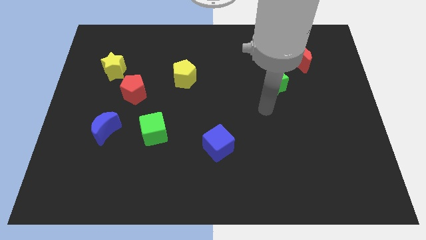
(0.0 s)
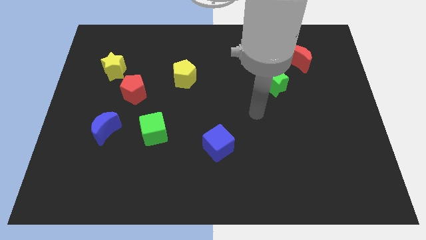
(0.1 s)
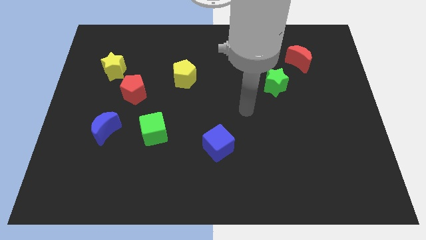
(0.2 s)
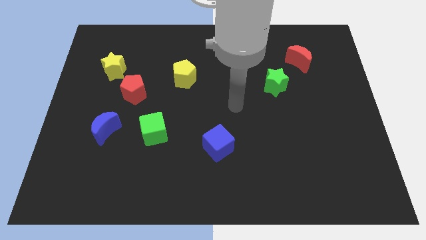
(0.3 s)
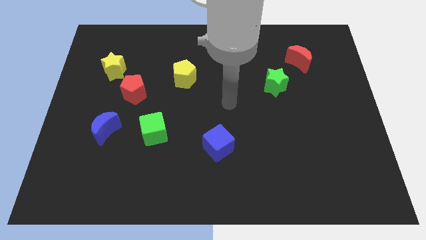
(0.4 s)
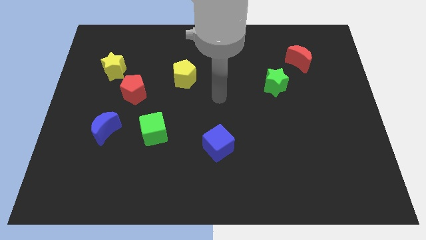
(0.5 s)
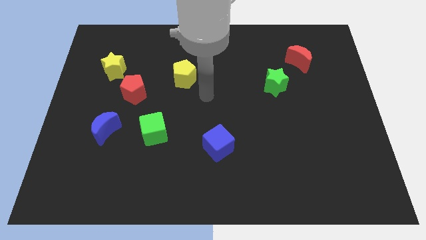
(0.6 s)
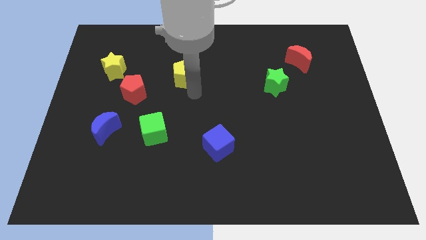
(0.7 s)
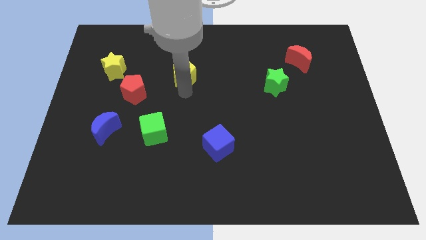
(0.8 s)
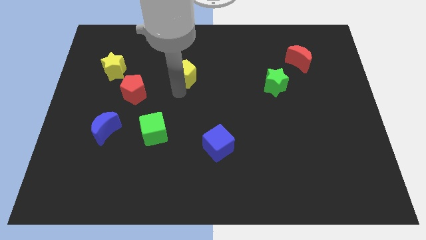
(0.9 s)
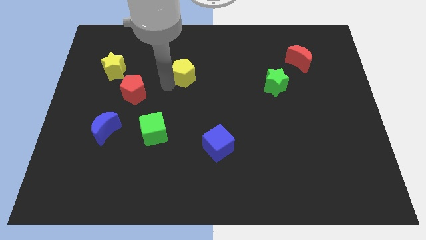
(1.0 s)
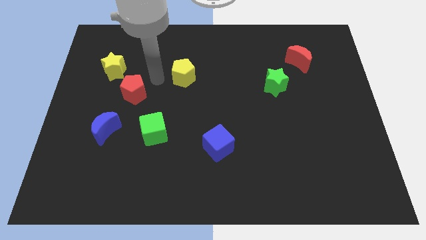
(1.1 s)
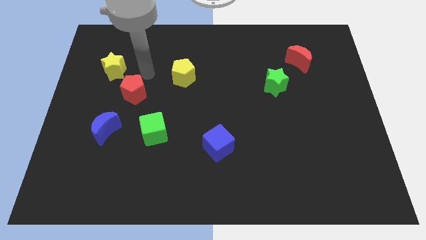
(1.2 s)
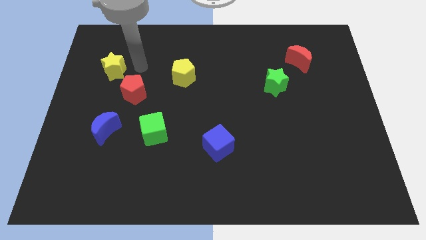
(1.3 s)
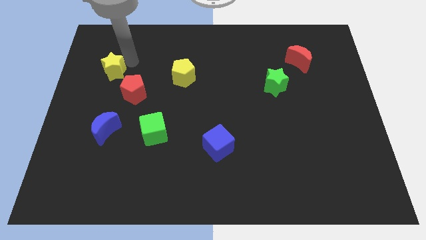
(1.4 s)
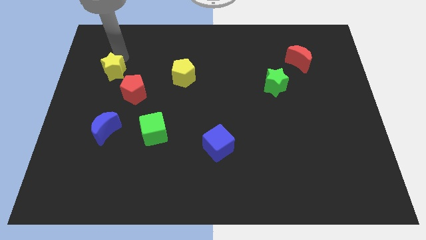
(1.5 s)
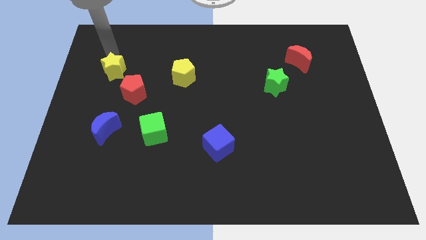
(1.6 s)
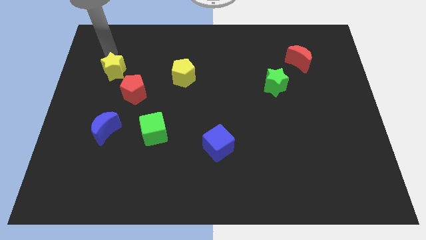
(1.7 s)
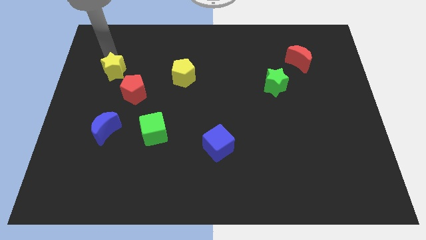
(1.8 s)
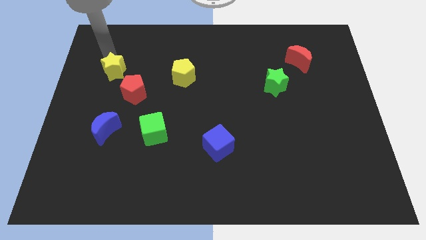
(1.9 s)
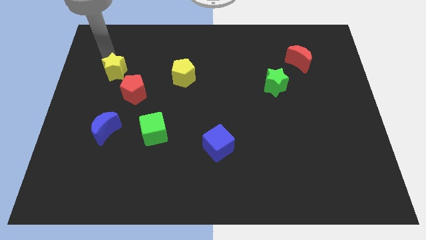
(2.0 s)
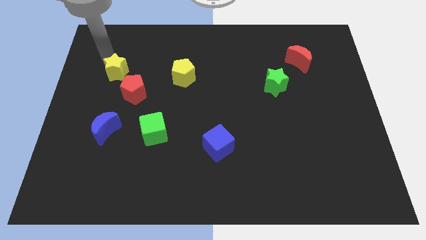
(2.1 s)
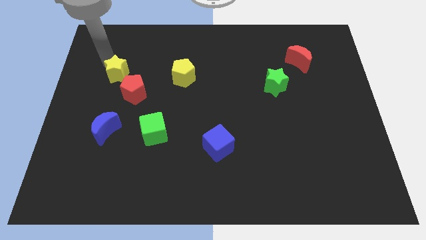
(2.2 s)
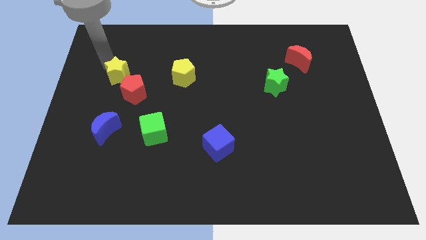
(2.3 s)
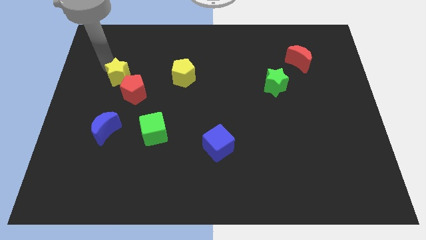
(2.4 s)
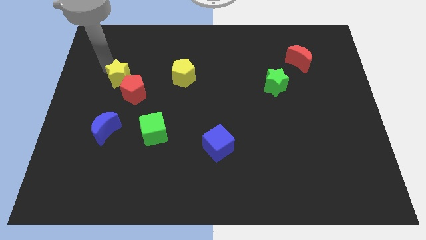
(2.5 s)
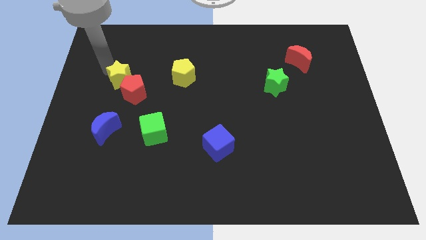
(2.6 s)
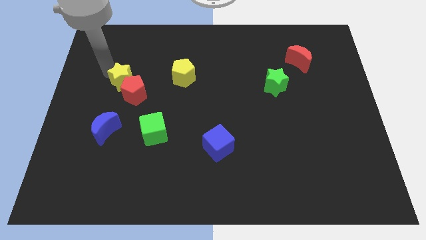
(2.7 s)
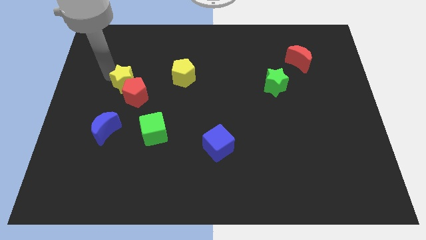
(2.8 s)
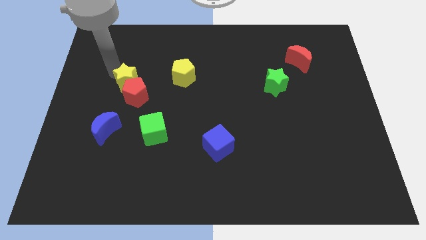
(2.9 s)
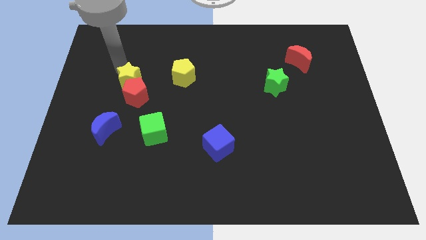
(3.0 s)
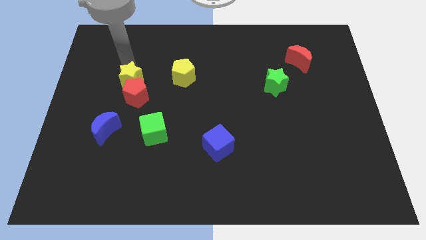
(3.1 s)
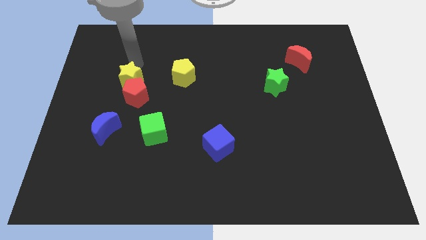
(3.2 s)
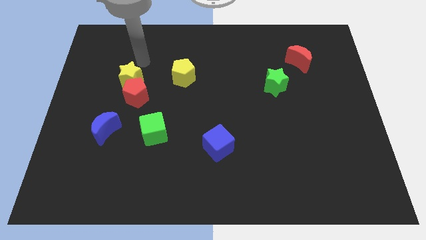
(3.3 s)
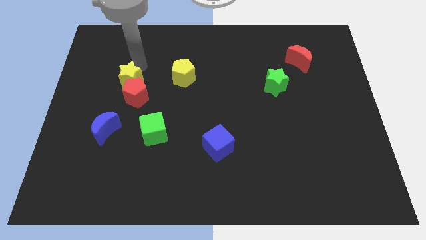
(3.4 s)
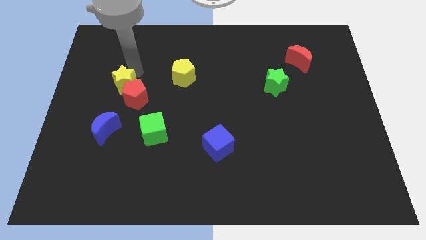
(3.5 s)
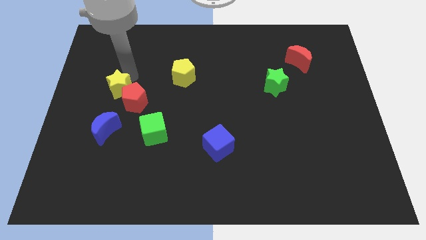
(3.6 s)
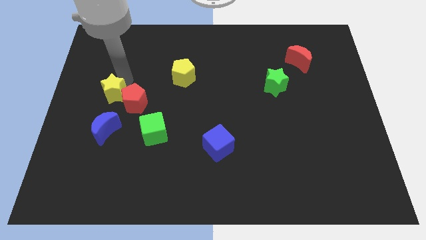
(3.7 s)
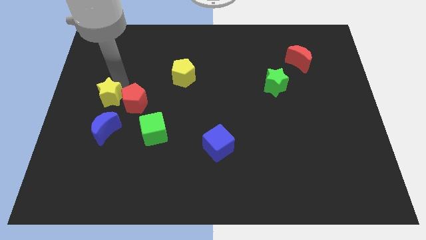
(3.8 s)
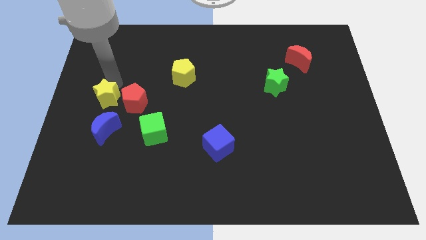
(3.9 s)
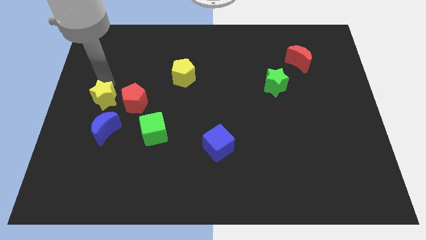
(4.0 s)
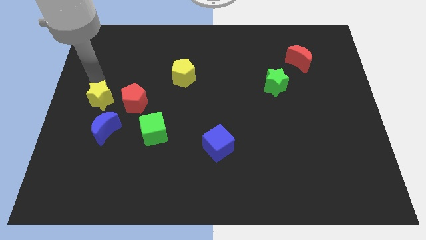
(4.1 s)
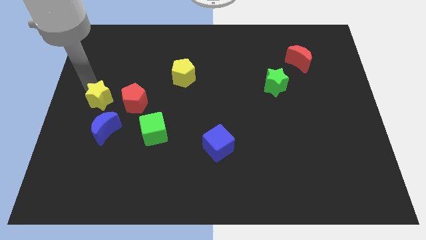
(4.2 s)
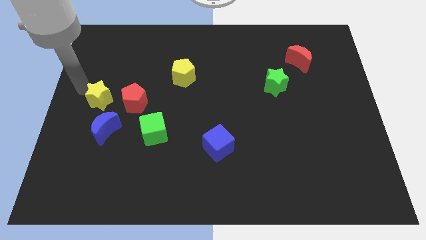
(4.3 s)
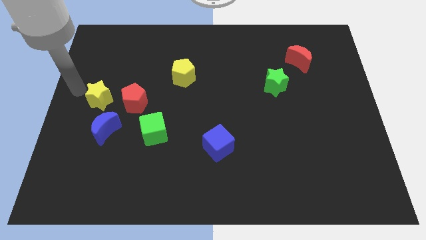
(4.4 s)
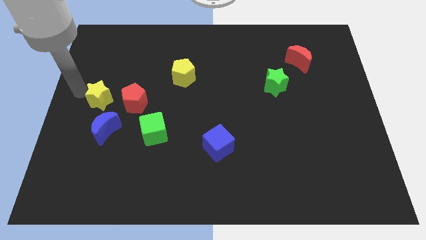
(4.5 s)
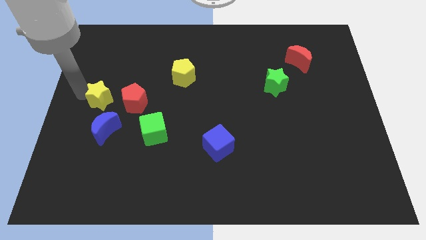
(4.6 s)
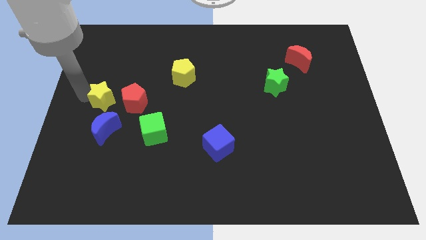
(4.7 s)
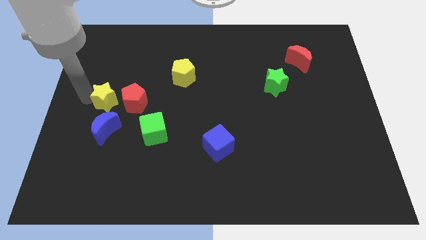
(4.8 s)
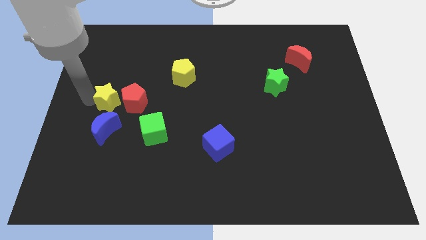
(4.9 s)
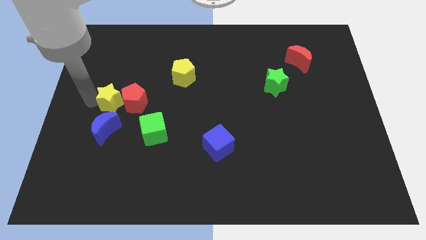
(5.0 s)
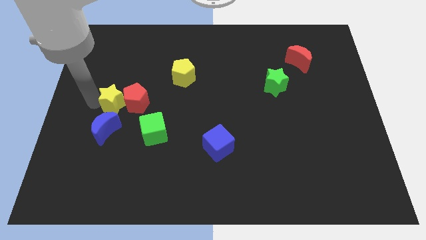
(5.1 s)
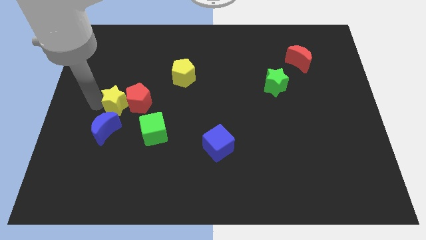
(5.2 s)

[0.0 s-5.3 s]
push the yellow star diagonally up and to the right of the blue moon

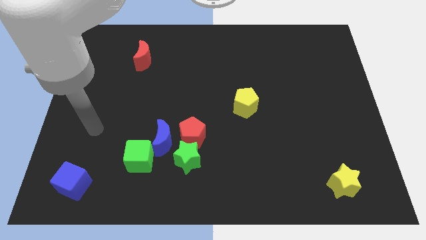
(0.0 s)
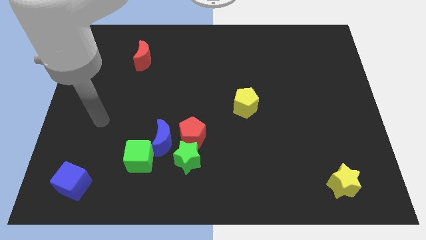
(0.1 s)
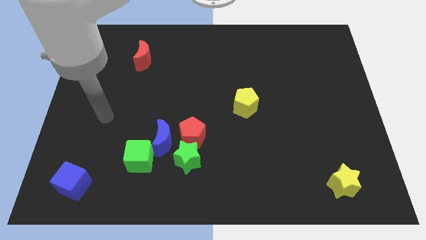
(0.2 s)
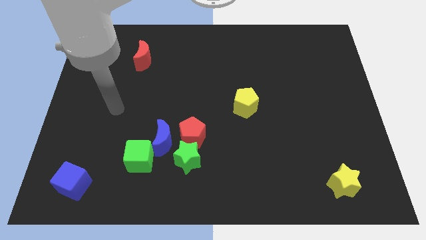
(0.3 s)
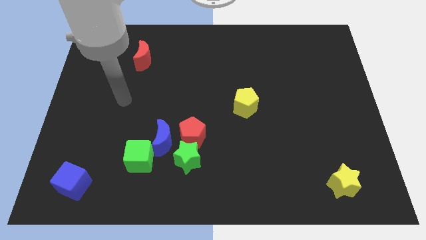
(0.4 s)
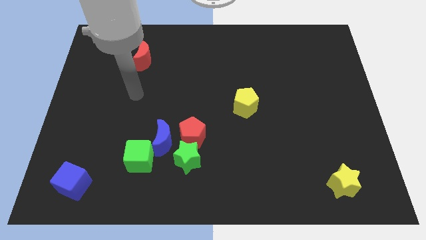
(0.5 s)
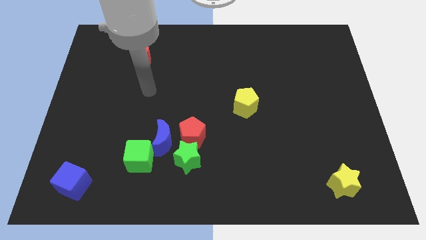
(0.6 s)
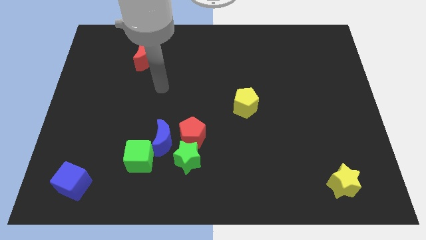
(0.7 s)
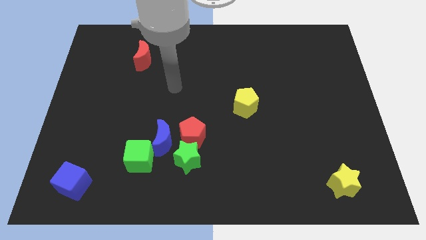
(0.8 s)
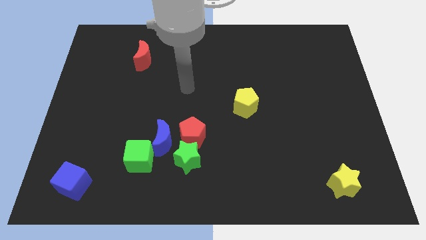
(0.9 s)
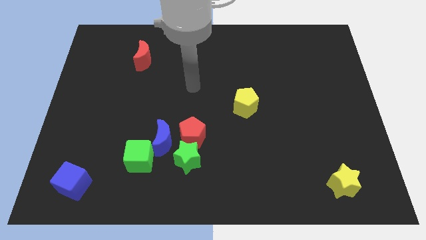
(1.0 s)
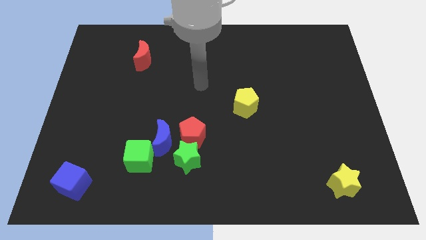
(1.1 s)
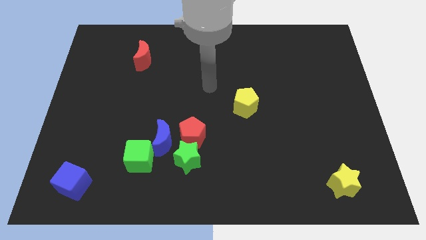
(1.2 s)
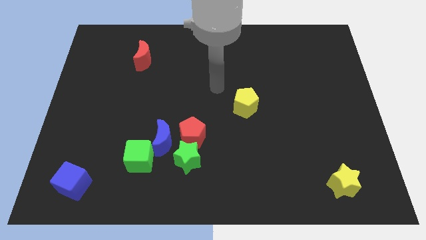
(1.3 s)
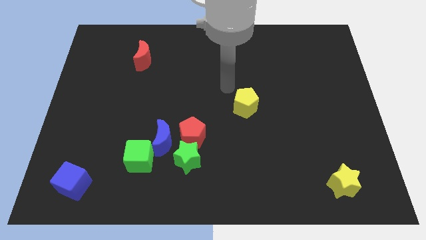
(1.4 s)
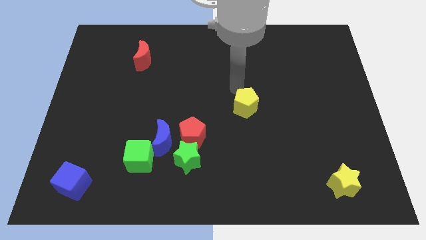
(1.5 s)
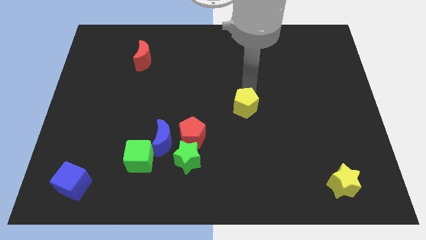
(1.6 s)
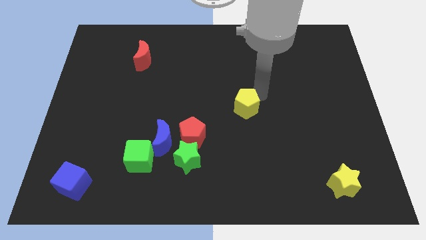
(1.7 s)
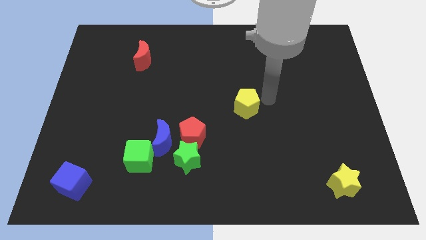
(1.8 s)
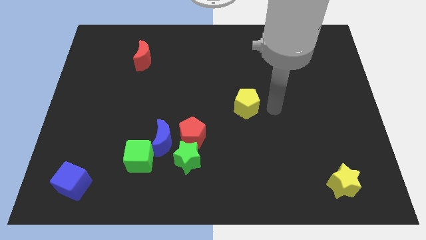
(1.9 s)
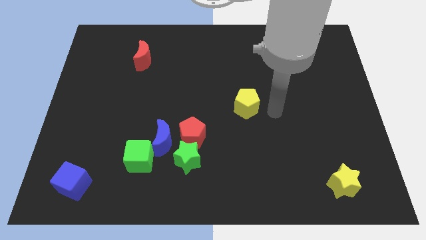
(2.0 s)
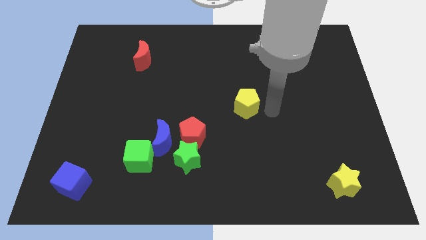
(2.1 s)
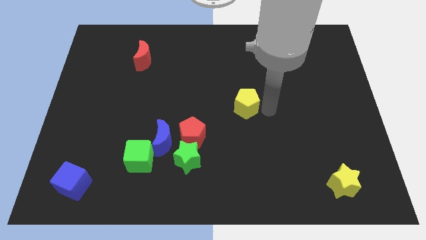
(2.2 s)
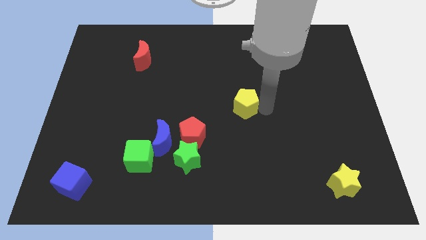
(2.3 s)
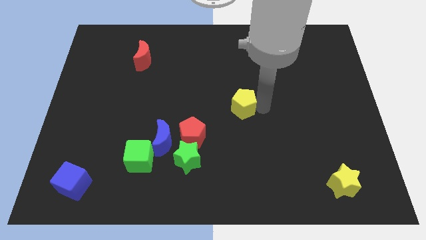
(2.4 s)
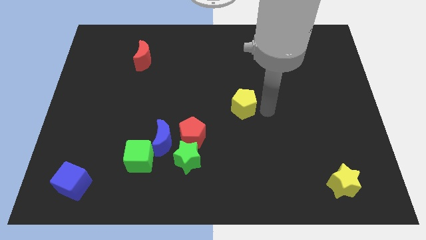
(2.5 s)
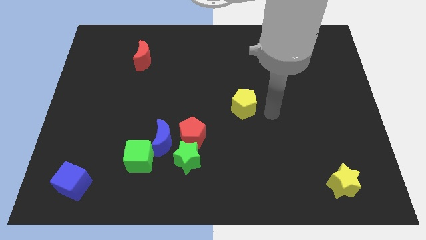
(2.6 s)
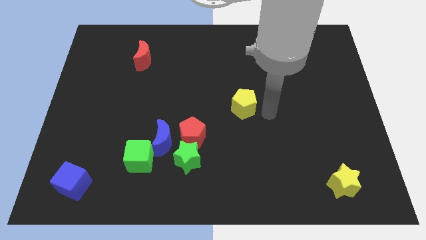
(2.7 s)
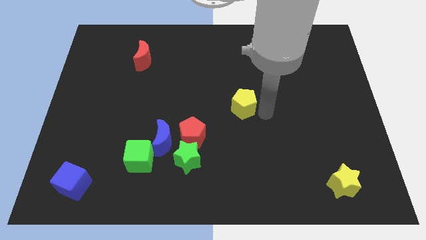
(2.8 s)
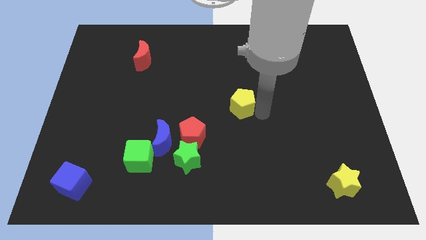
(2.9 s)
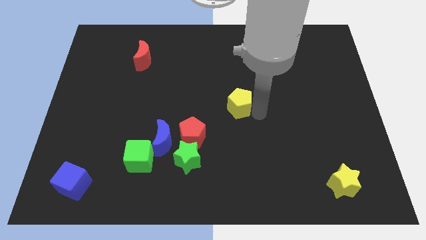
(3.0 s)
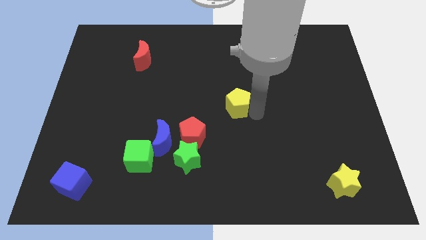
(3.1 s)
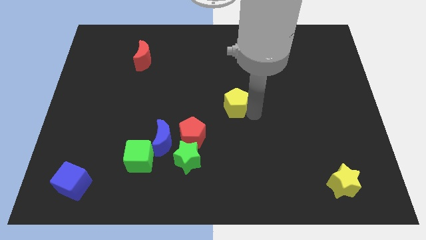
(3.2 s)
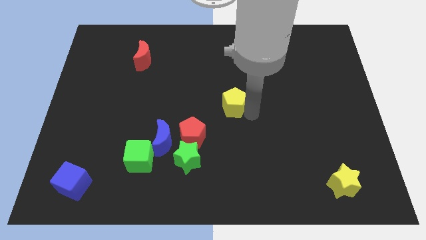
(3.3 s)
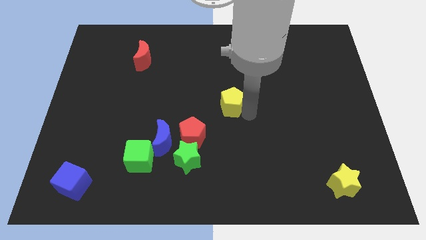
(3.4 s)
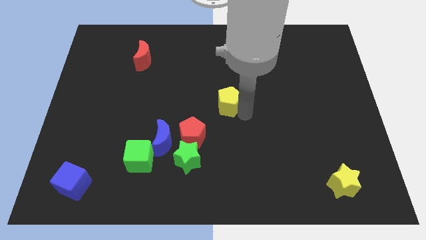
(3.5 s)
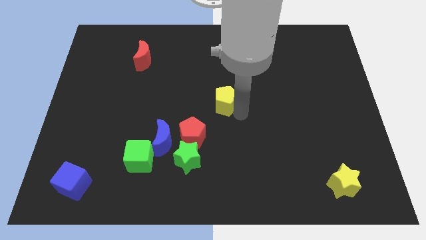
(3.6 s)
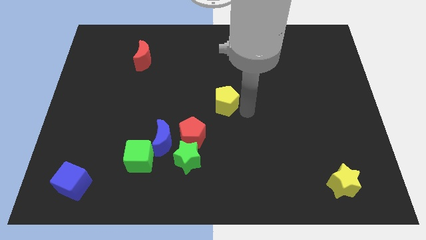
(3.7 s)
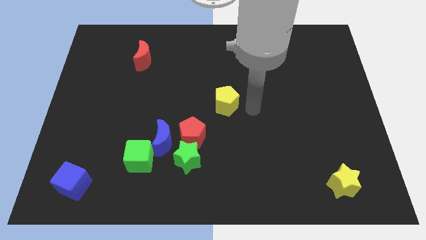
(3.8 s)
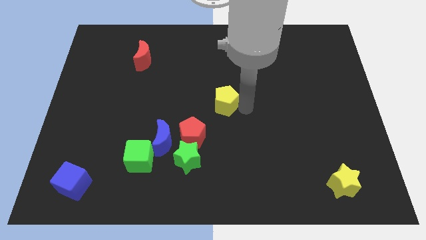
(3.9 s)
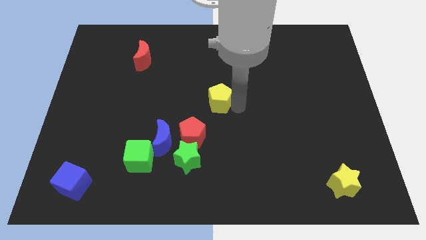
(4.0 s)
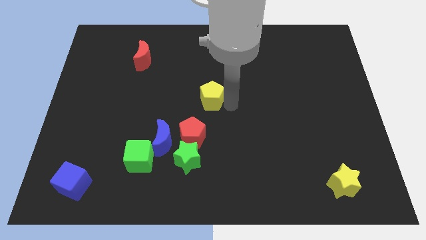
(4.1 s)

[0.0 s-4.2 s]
put the yellow pentagon above the red pentagon
